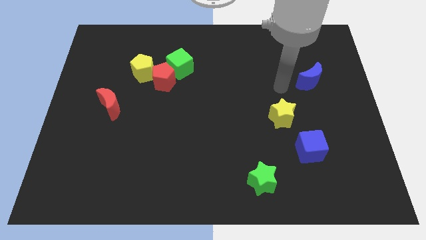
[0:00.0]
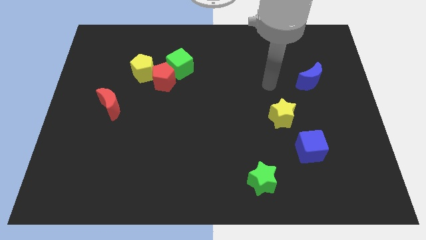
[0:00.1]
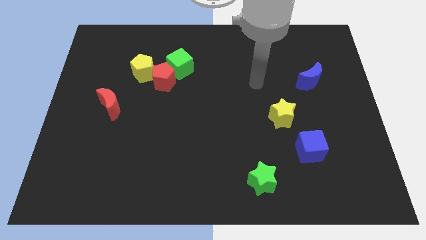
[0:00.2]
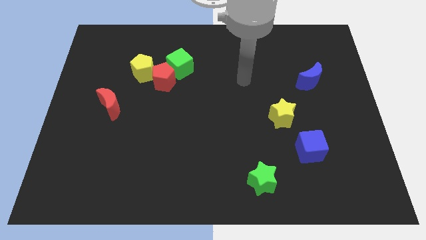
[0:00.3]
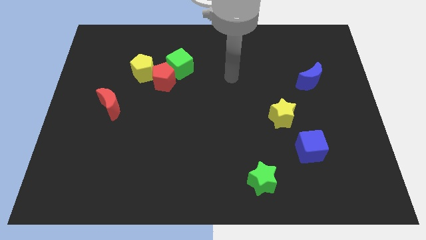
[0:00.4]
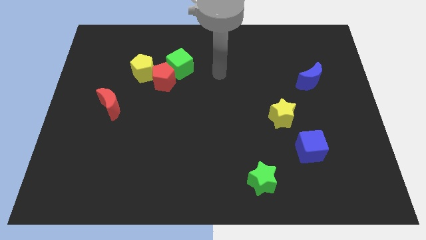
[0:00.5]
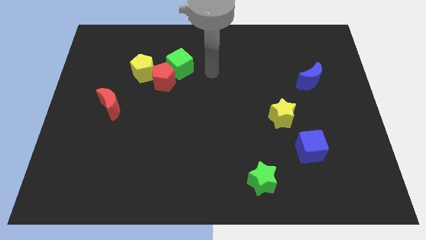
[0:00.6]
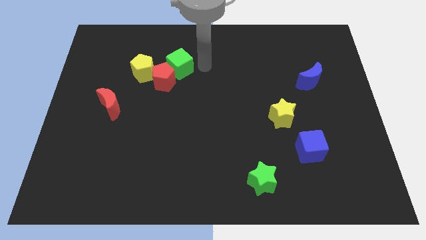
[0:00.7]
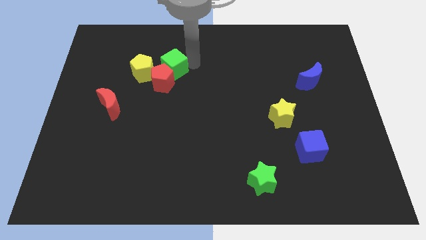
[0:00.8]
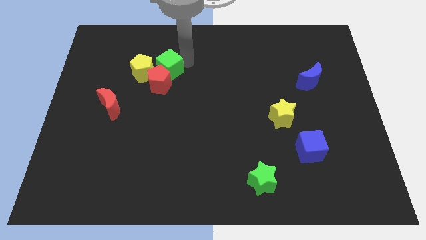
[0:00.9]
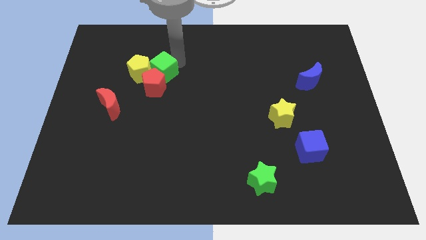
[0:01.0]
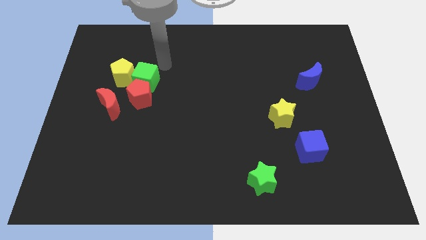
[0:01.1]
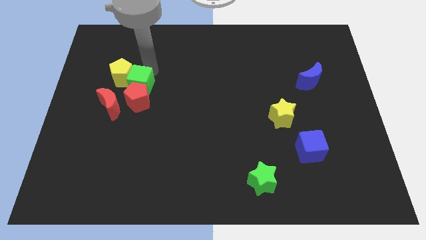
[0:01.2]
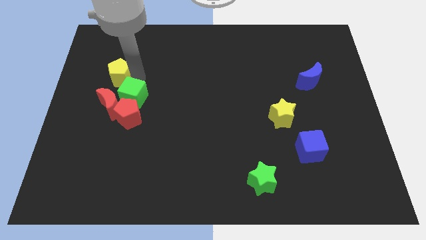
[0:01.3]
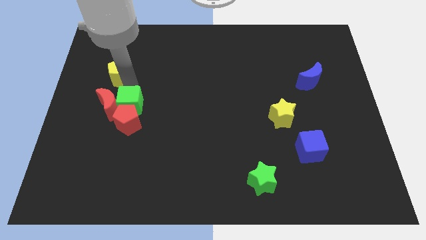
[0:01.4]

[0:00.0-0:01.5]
move the red pentagon away from the green cube and yellow pentagon

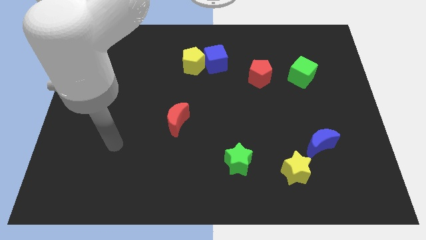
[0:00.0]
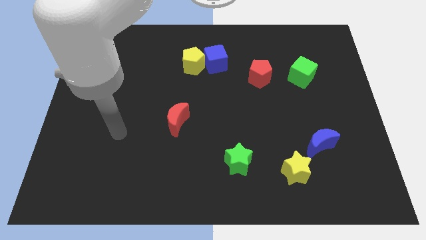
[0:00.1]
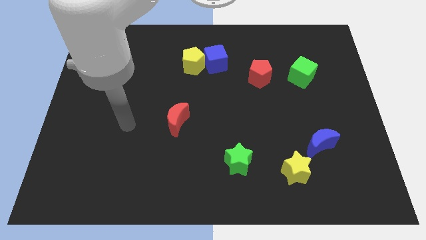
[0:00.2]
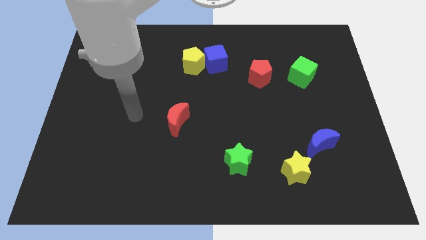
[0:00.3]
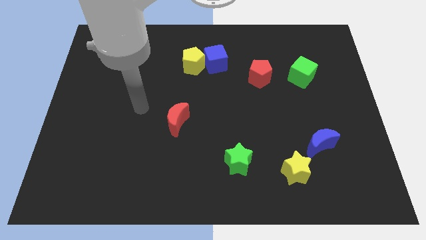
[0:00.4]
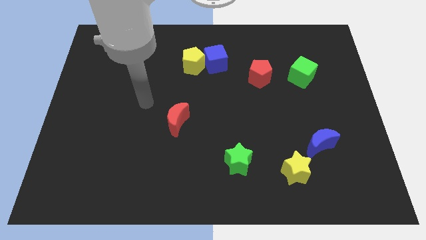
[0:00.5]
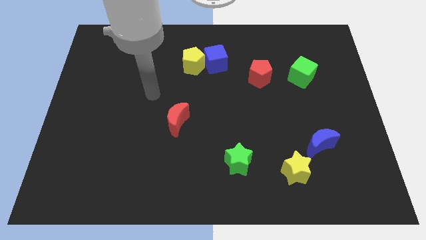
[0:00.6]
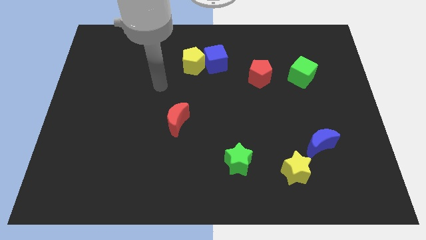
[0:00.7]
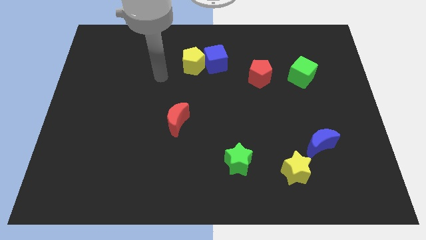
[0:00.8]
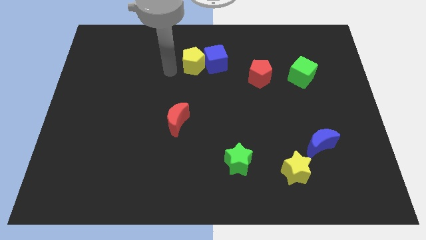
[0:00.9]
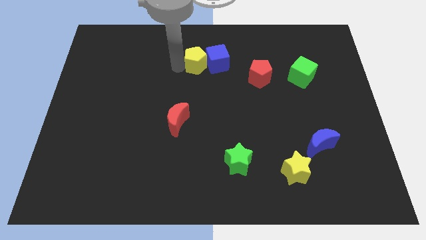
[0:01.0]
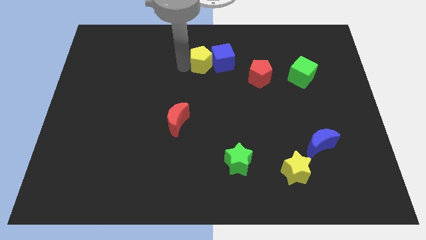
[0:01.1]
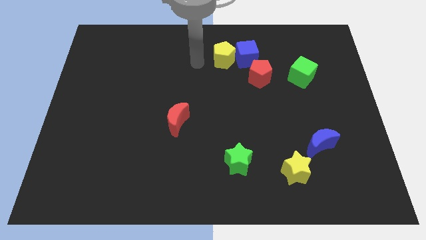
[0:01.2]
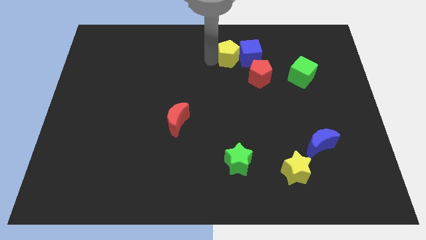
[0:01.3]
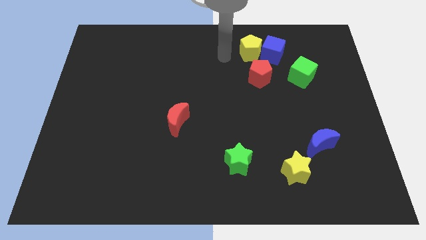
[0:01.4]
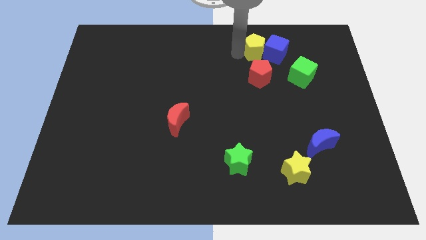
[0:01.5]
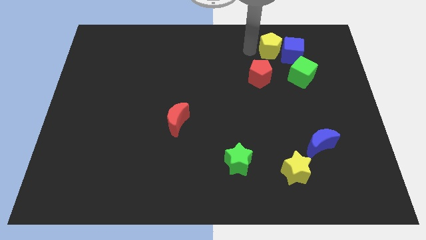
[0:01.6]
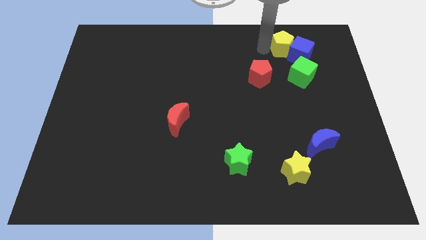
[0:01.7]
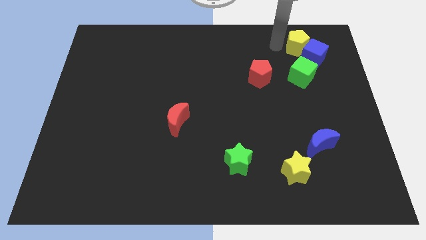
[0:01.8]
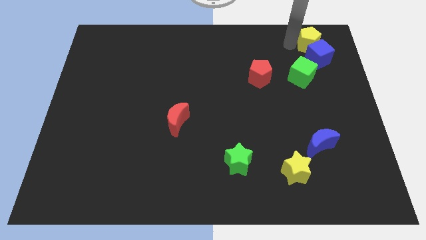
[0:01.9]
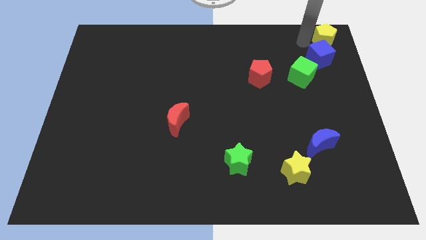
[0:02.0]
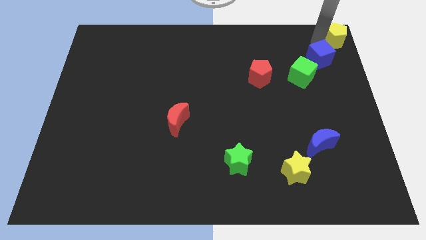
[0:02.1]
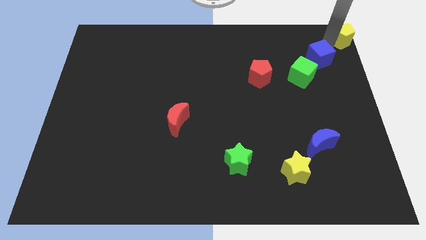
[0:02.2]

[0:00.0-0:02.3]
separate the blue cube from the yellow pentagon

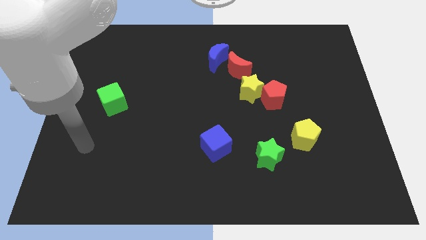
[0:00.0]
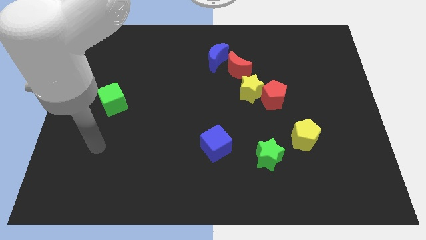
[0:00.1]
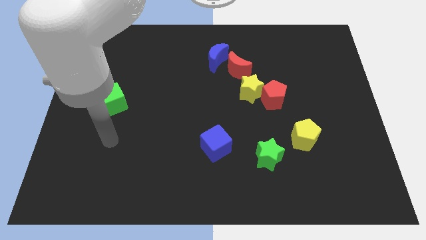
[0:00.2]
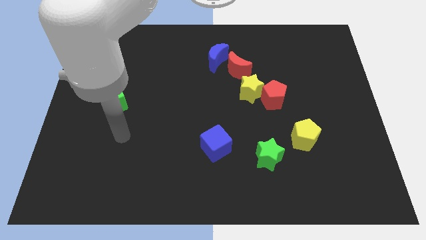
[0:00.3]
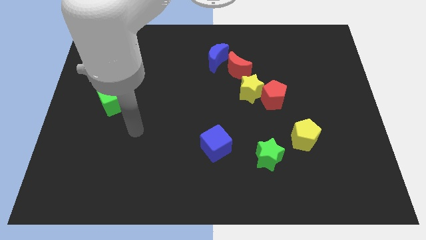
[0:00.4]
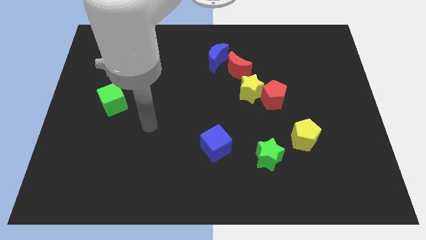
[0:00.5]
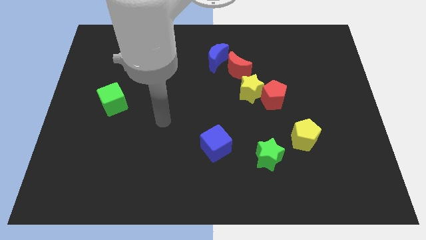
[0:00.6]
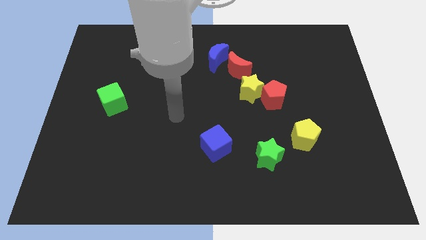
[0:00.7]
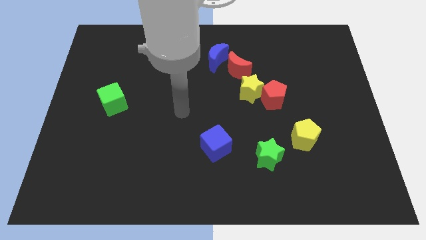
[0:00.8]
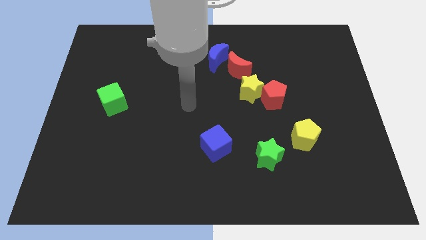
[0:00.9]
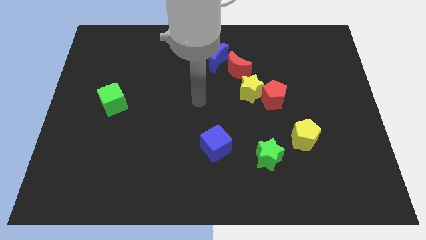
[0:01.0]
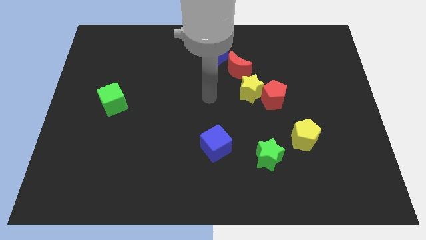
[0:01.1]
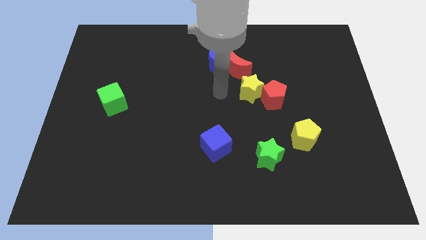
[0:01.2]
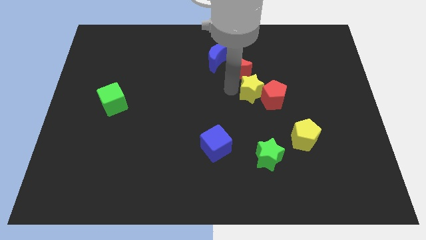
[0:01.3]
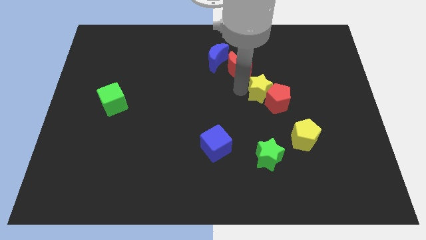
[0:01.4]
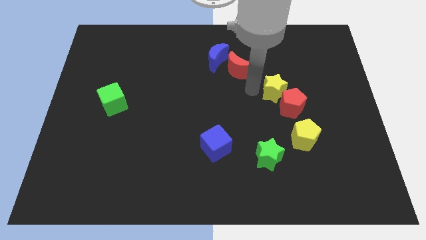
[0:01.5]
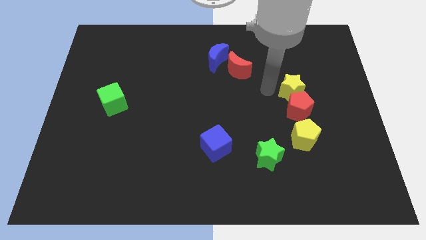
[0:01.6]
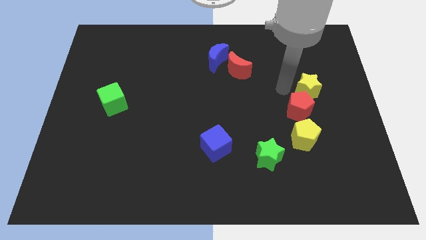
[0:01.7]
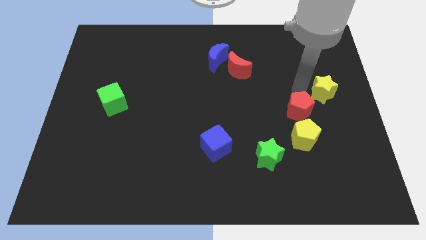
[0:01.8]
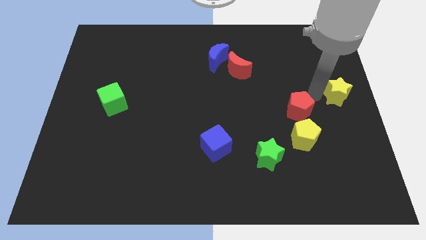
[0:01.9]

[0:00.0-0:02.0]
separate the red pentagon from the yellow star

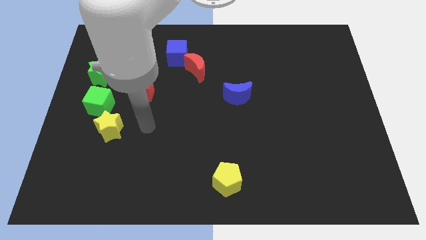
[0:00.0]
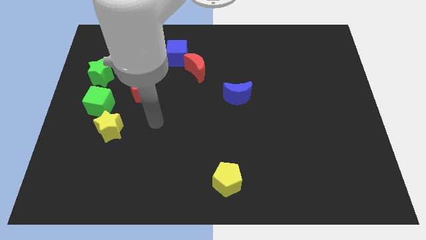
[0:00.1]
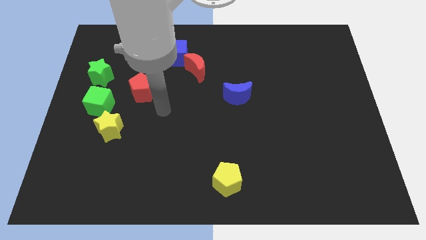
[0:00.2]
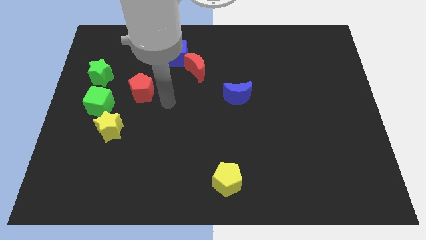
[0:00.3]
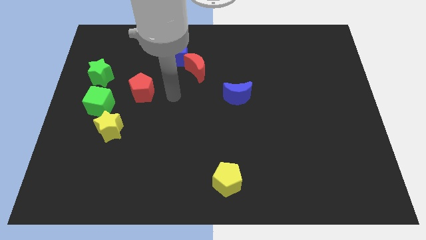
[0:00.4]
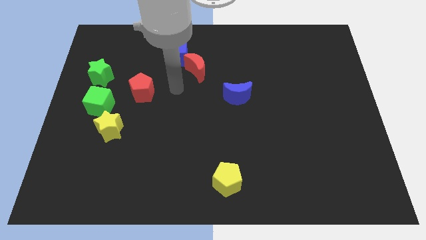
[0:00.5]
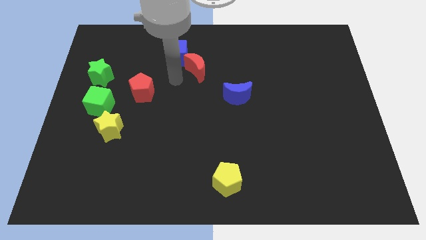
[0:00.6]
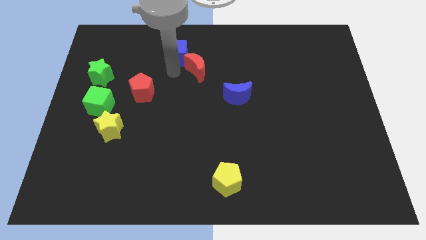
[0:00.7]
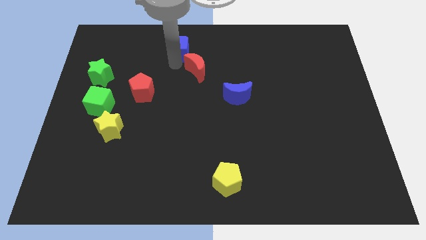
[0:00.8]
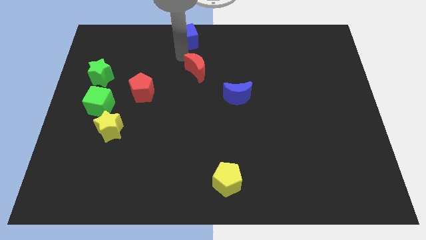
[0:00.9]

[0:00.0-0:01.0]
separate the red moon from the blue cube

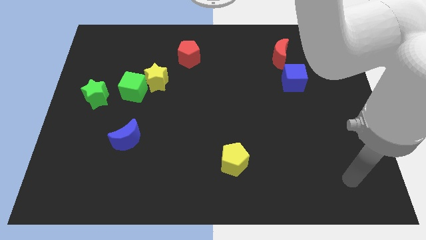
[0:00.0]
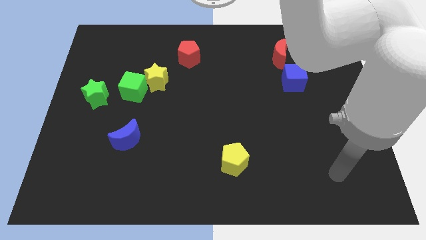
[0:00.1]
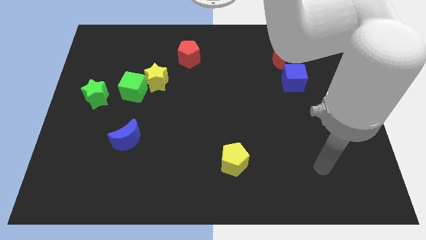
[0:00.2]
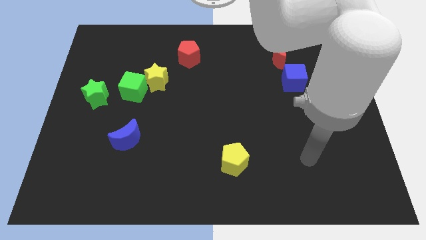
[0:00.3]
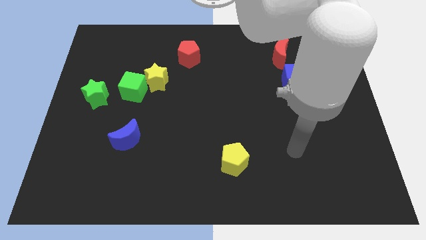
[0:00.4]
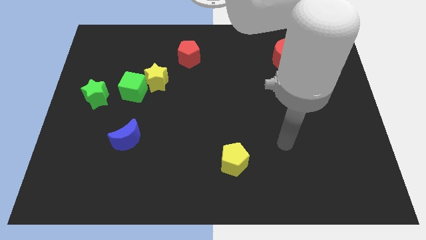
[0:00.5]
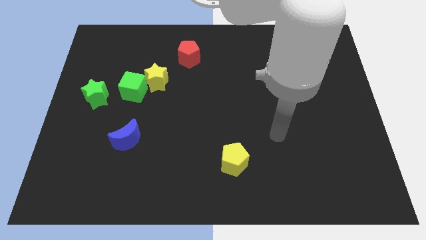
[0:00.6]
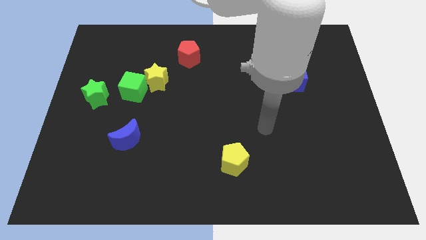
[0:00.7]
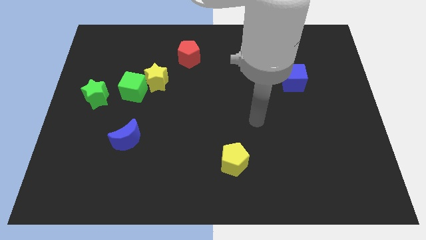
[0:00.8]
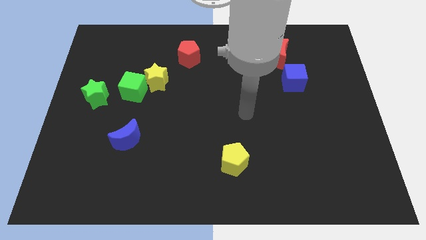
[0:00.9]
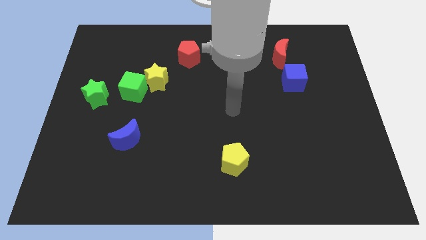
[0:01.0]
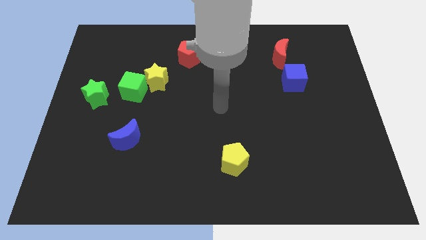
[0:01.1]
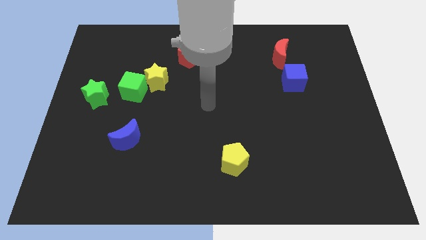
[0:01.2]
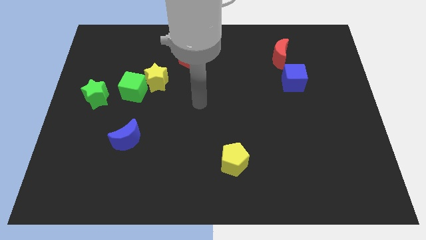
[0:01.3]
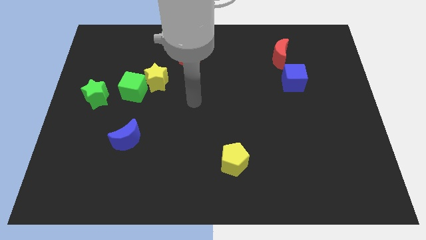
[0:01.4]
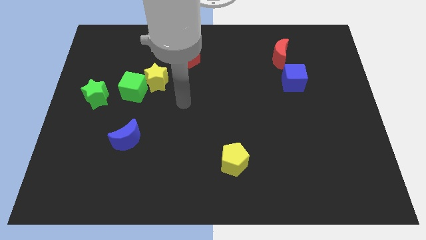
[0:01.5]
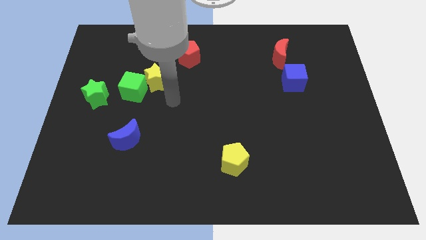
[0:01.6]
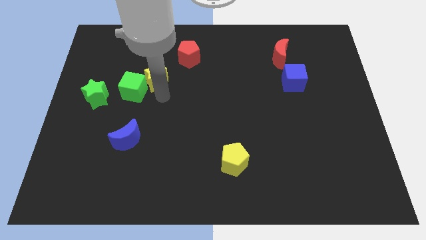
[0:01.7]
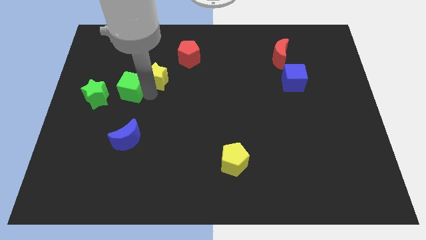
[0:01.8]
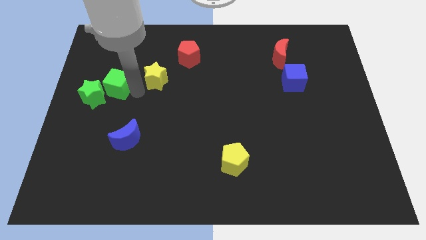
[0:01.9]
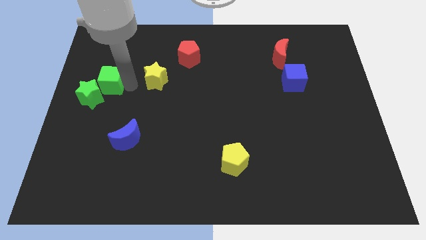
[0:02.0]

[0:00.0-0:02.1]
separate the yellow star from the green cube

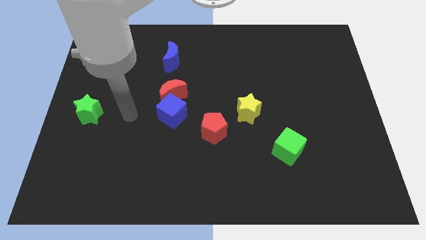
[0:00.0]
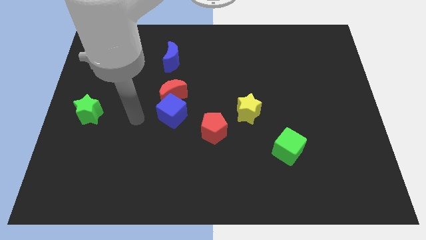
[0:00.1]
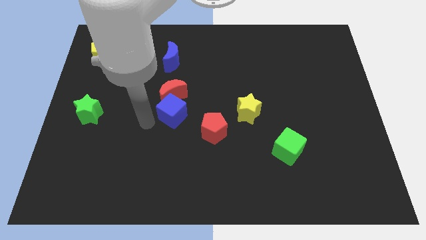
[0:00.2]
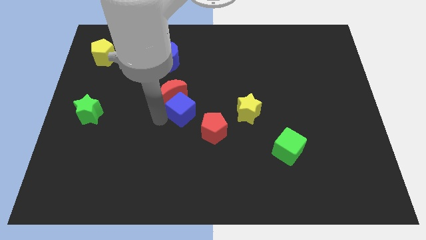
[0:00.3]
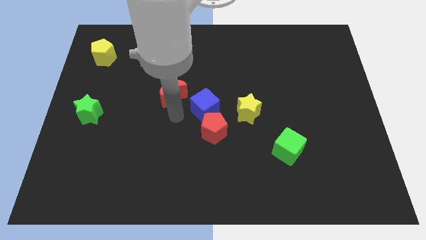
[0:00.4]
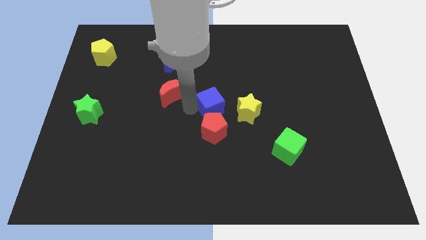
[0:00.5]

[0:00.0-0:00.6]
move the red moon away from the blue cube
